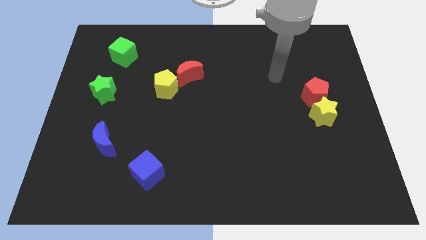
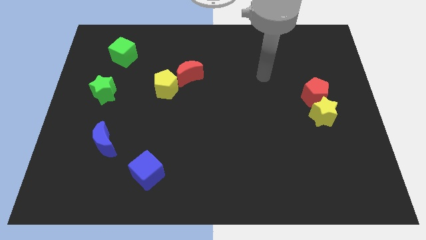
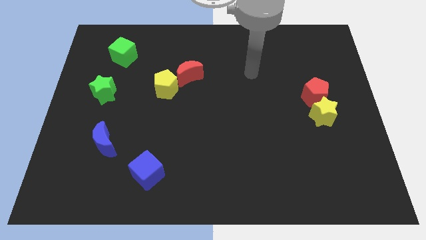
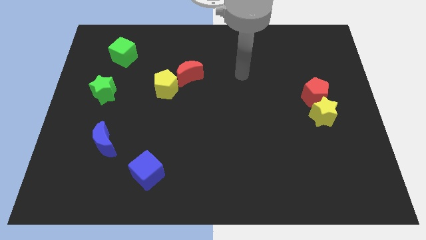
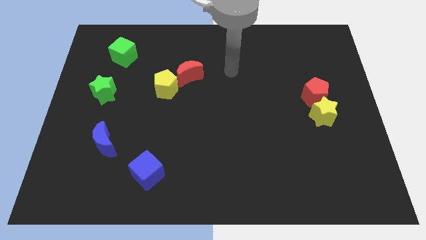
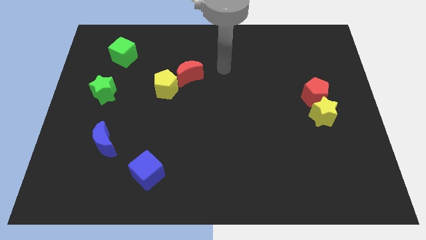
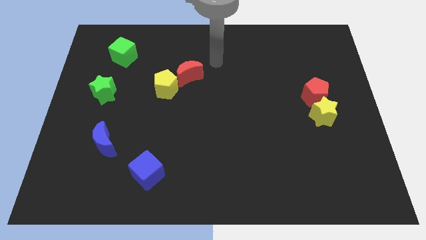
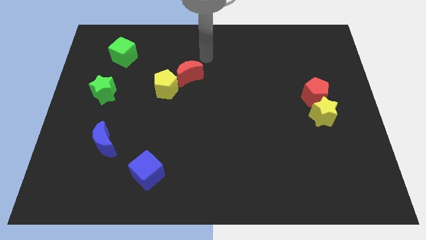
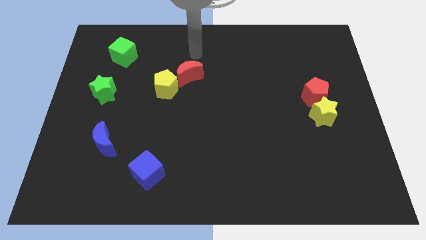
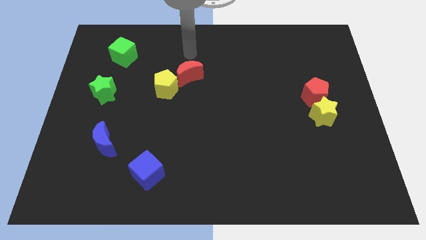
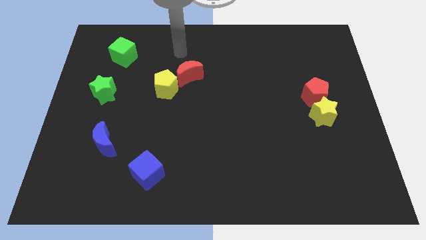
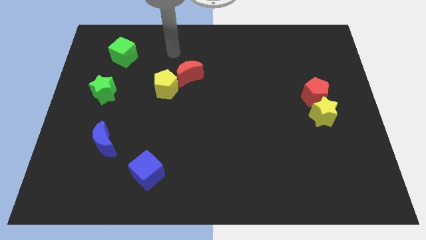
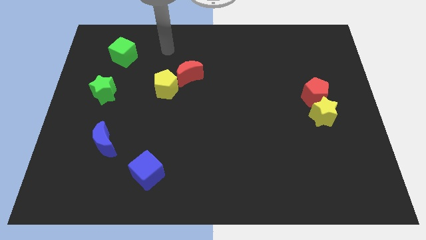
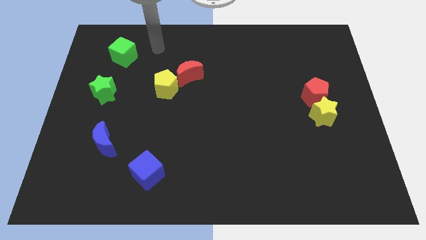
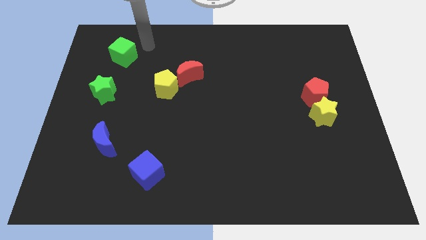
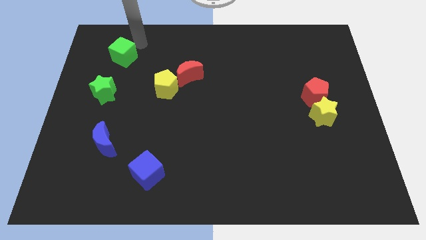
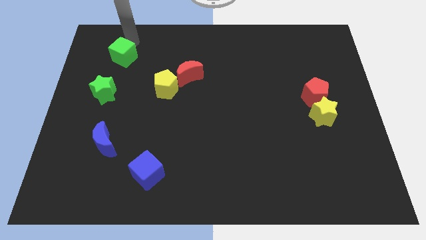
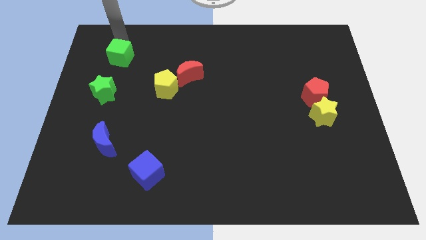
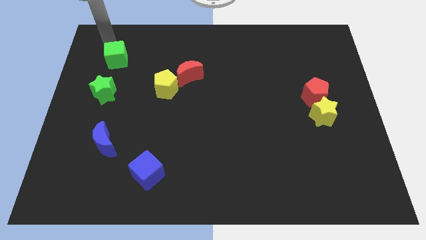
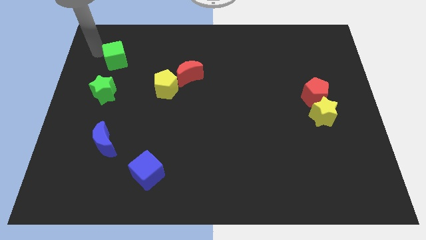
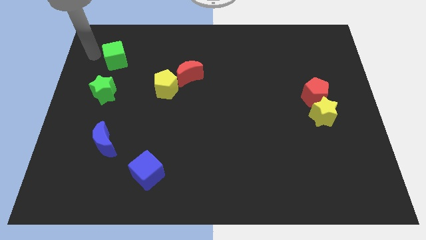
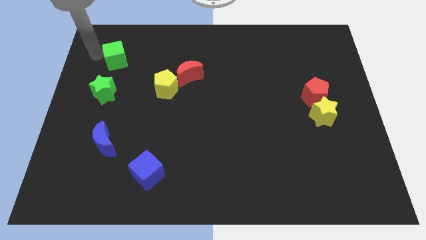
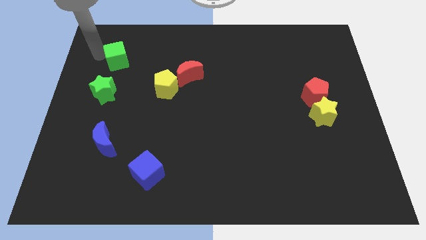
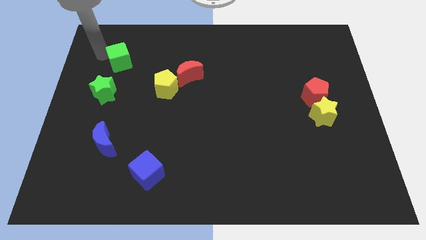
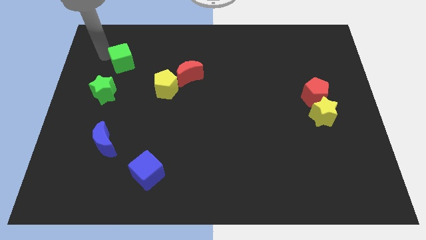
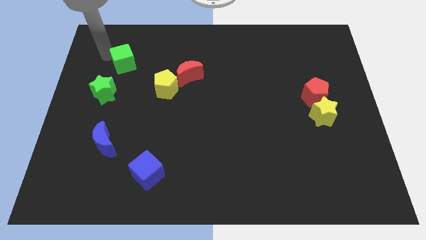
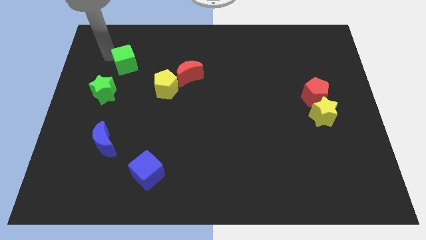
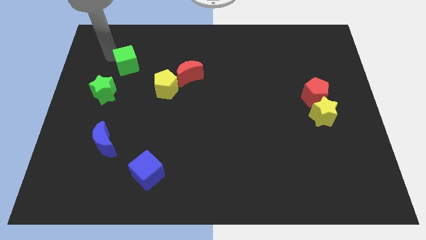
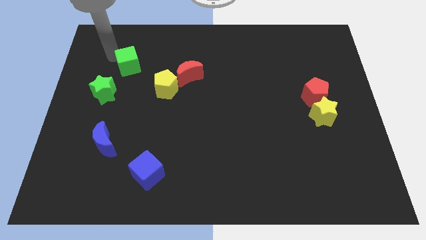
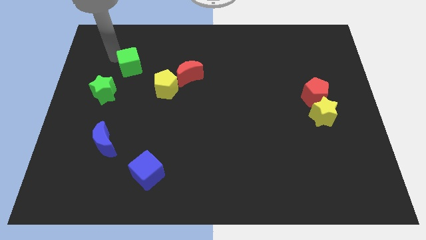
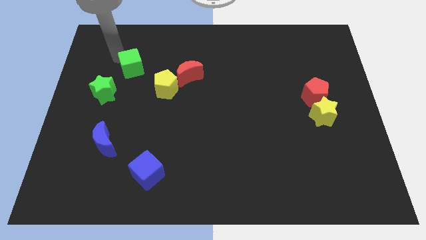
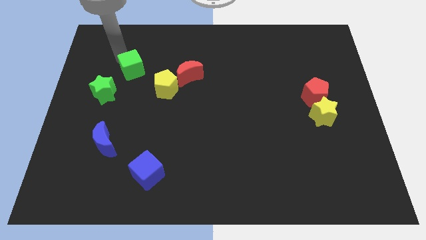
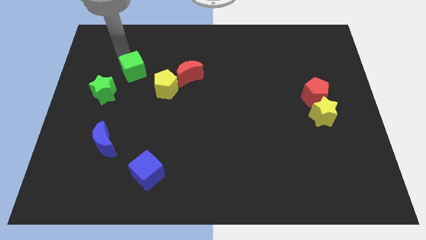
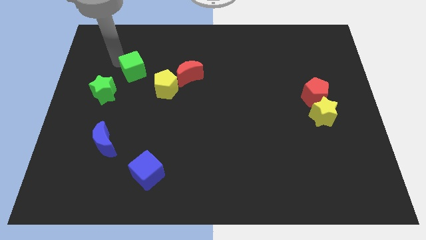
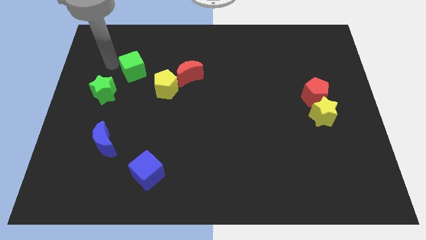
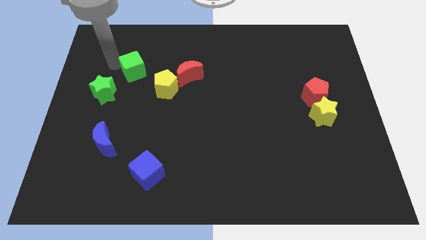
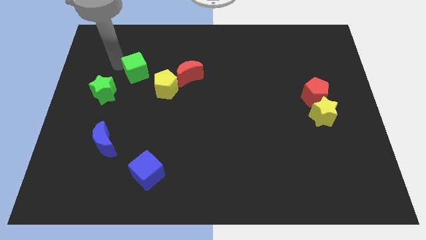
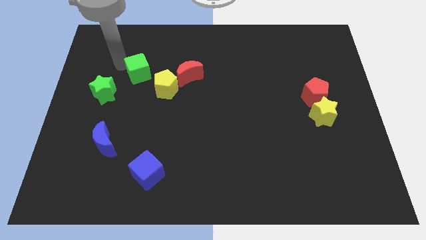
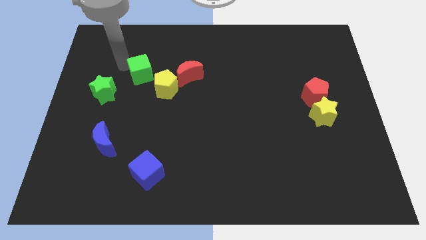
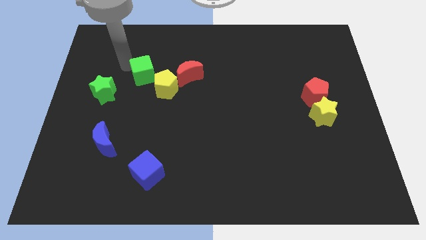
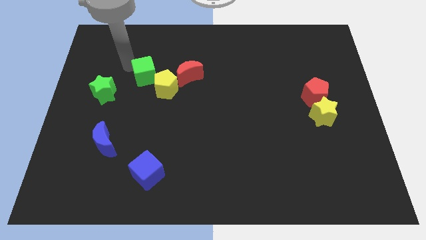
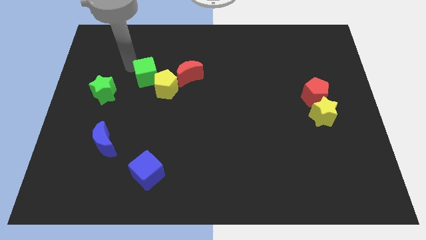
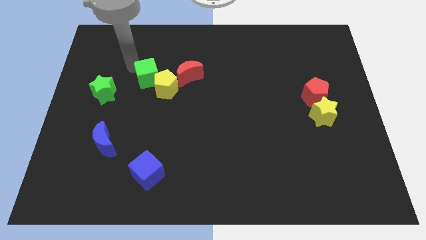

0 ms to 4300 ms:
push the green cube next to the yellow pentagon

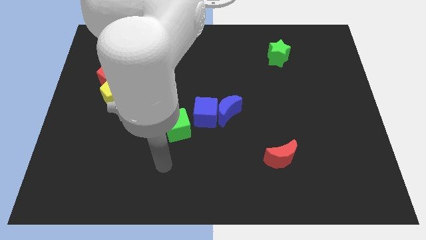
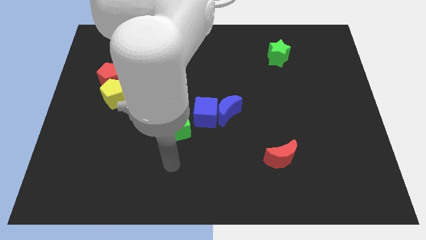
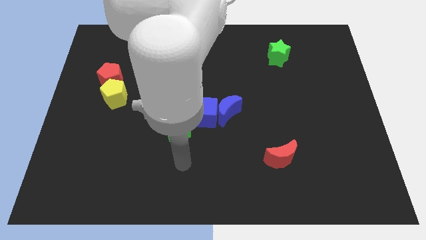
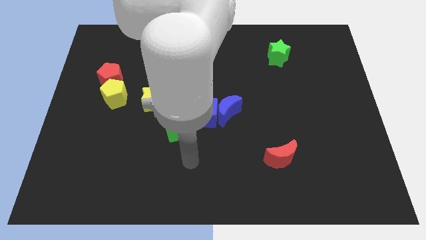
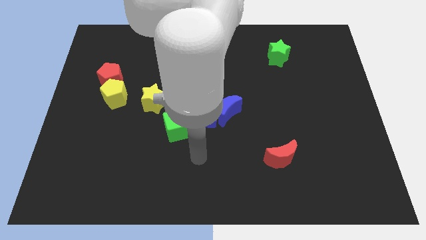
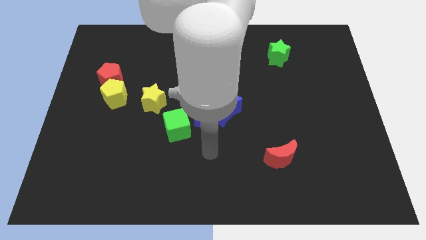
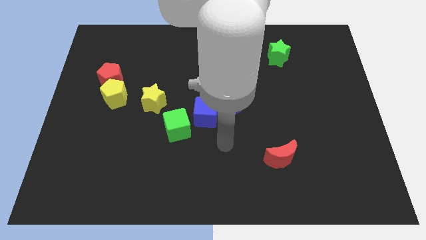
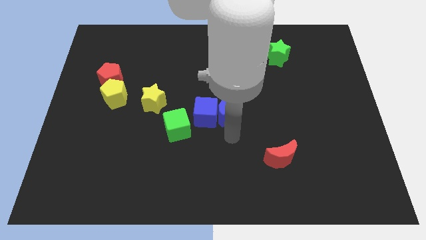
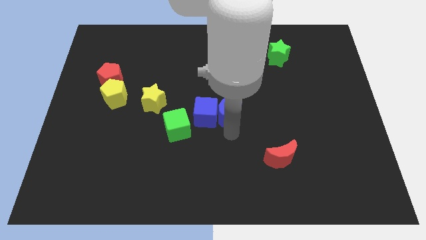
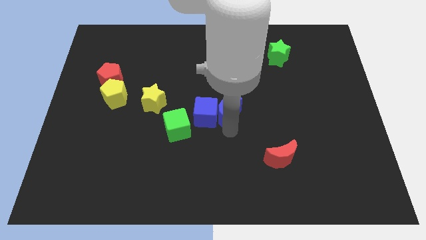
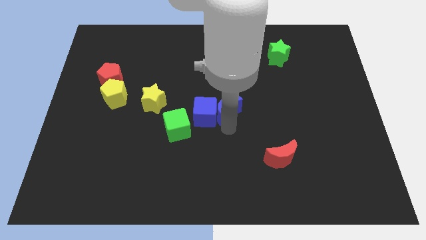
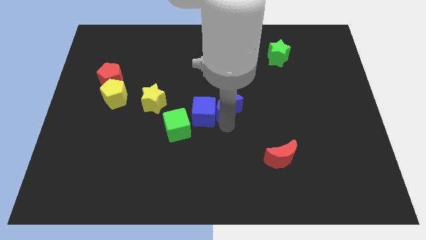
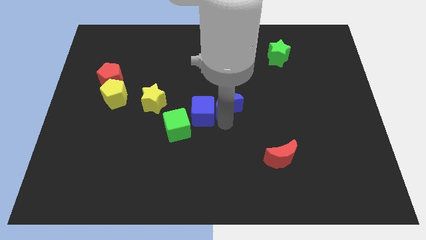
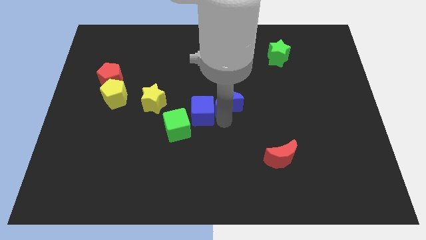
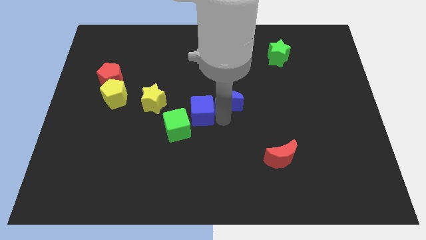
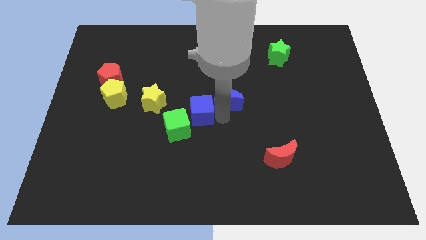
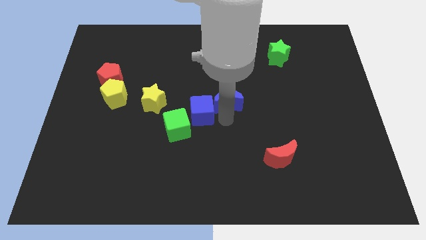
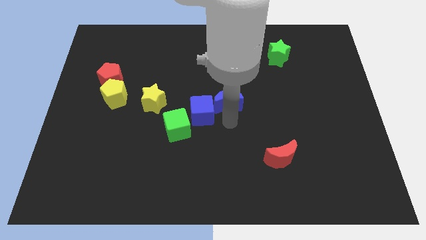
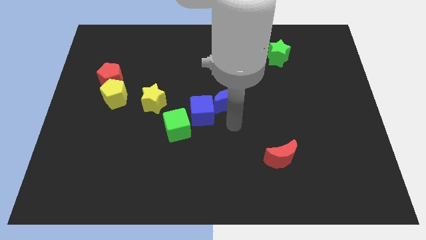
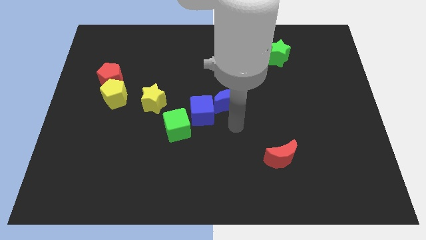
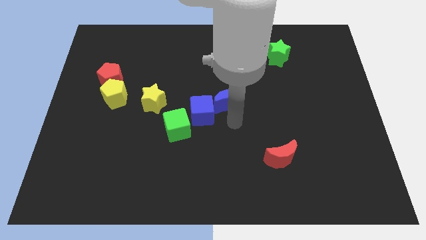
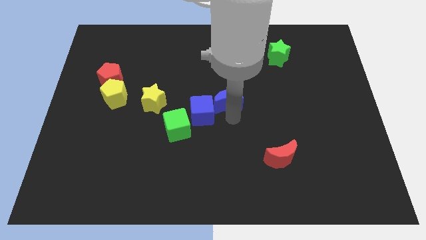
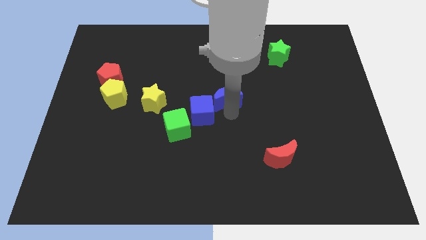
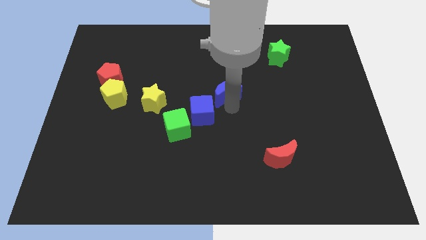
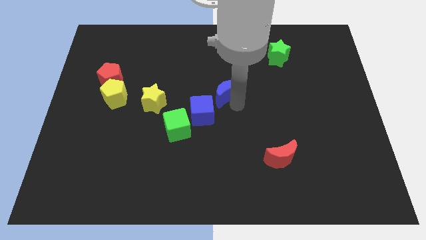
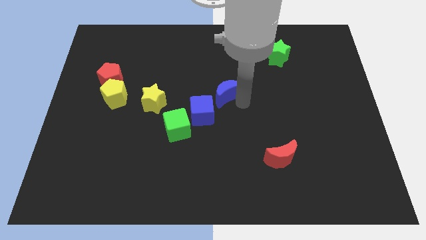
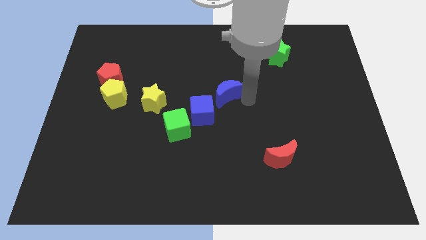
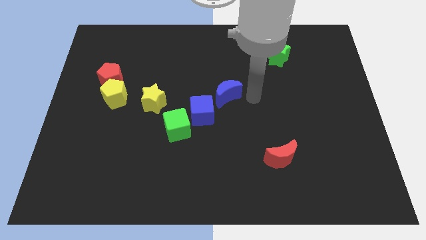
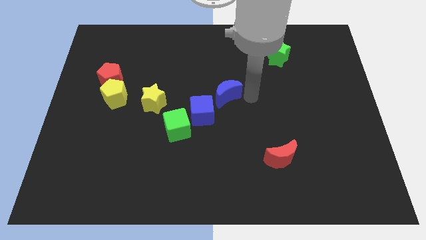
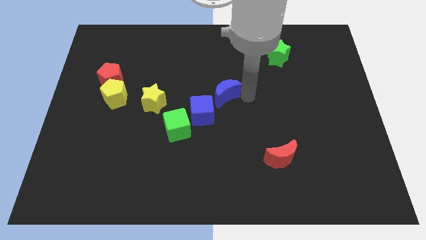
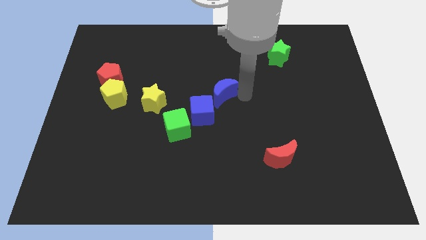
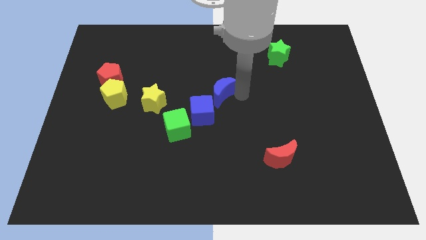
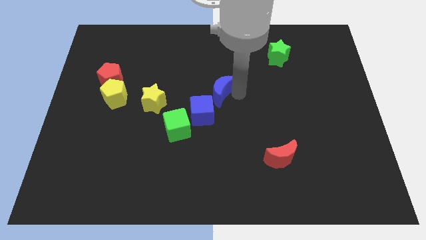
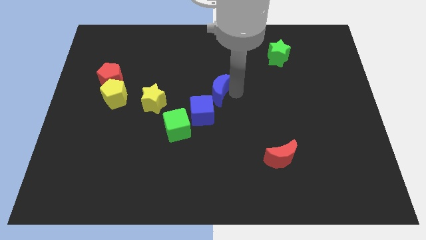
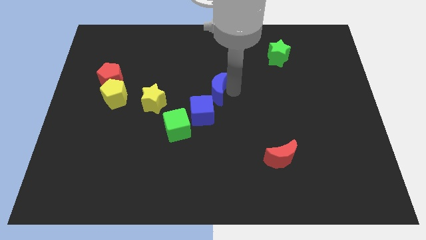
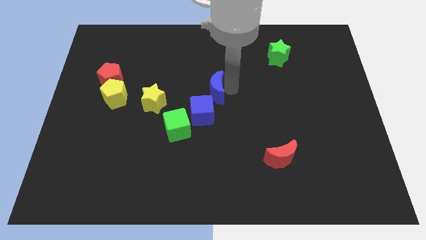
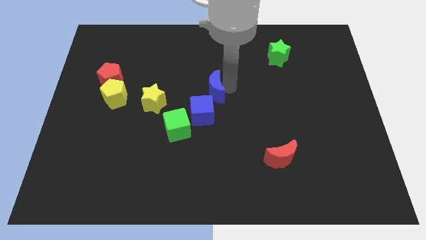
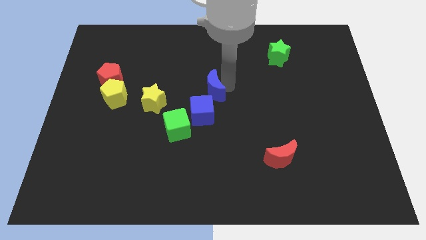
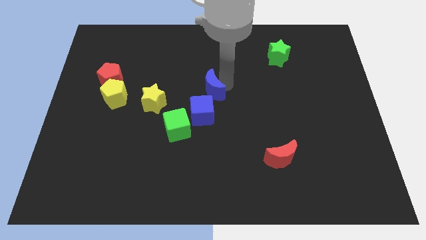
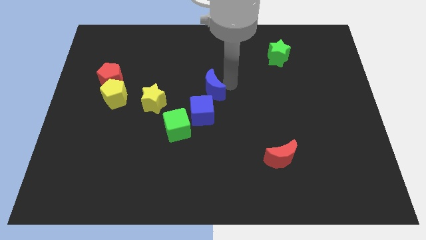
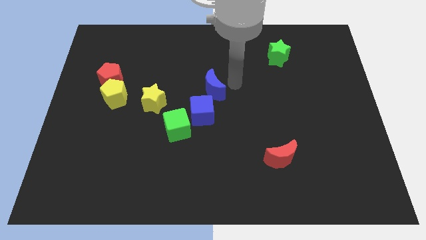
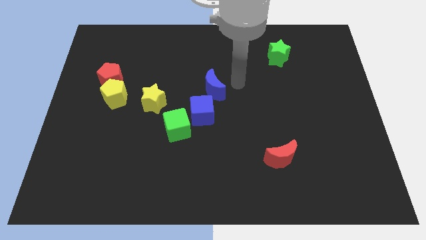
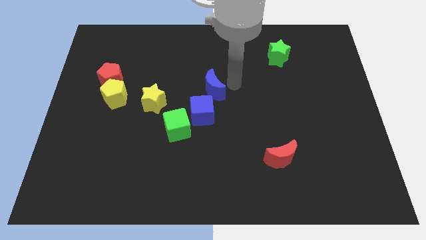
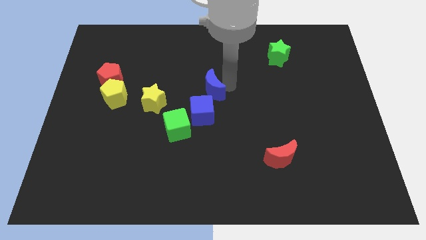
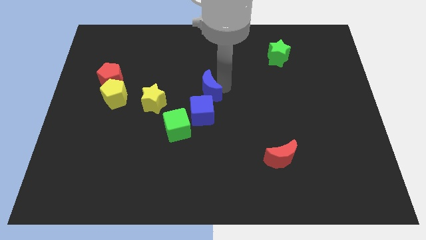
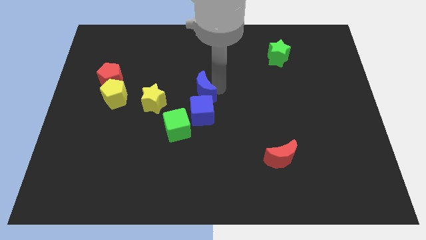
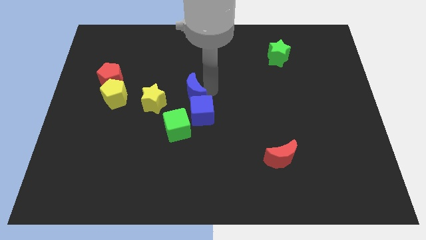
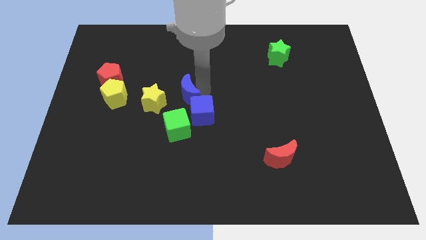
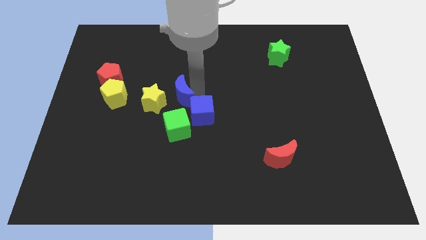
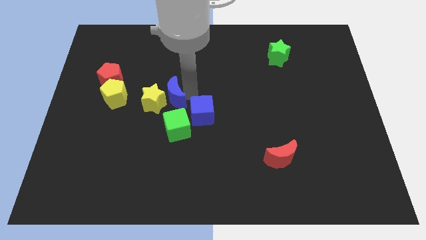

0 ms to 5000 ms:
push the blue moon next to the yellow star
